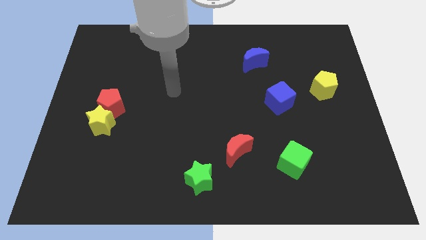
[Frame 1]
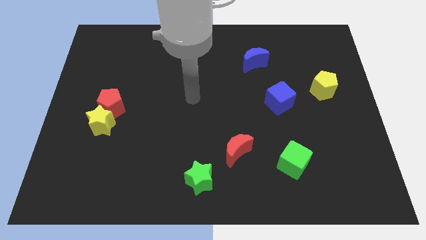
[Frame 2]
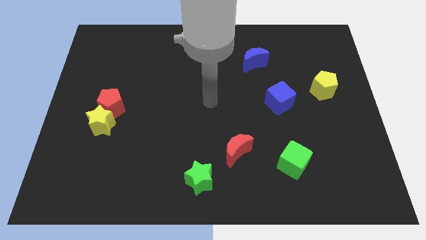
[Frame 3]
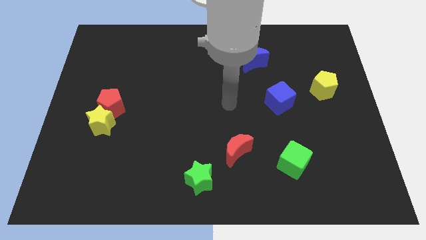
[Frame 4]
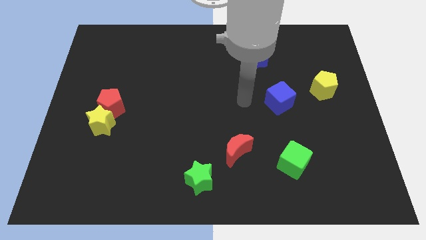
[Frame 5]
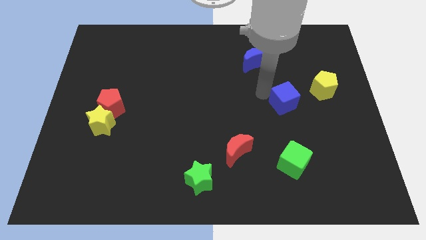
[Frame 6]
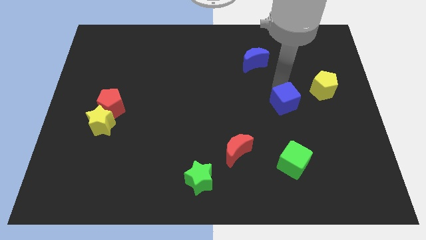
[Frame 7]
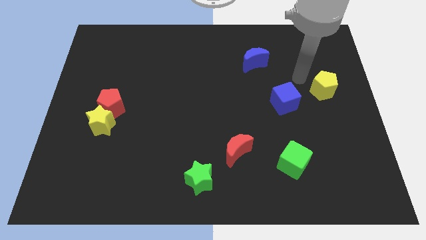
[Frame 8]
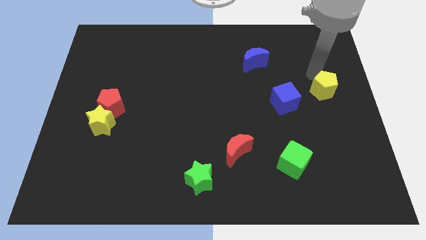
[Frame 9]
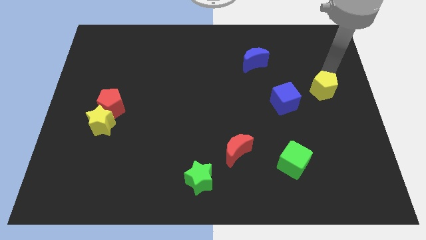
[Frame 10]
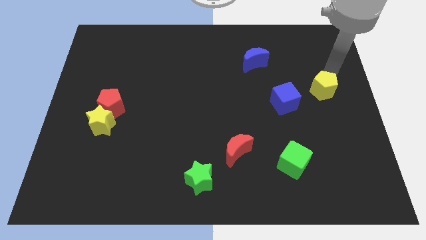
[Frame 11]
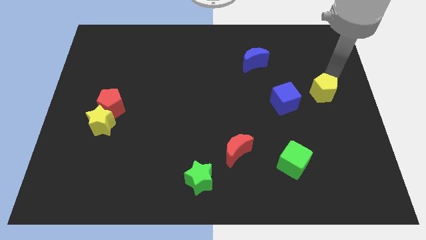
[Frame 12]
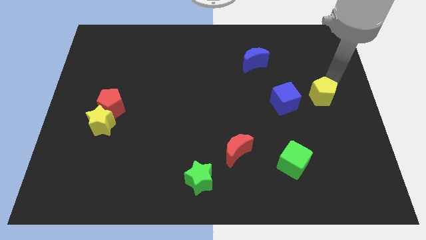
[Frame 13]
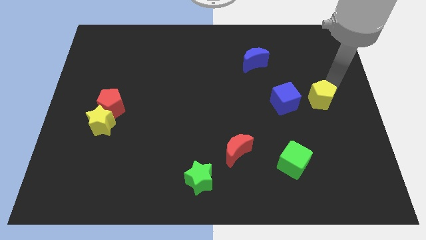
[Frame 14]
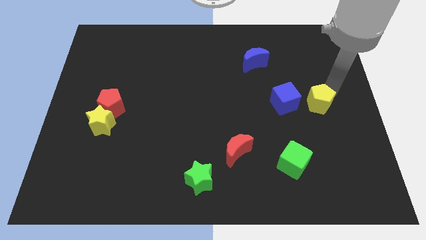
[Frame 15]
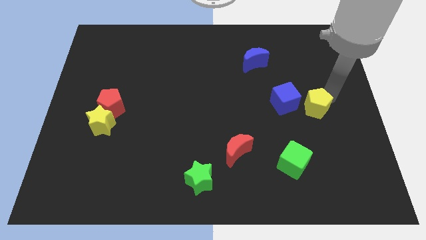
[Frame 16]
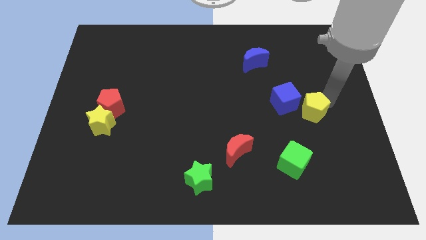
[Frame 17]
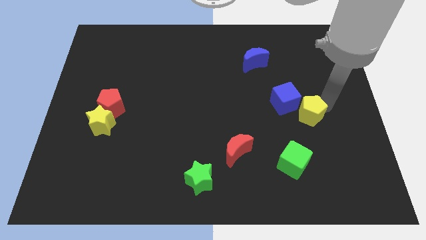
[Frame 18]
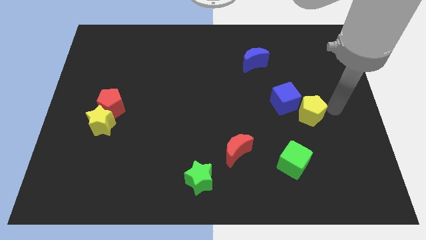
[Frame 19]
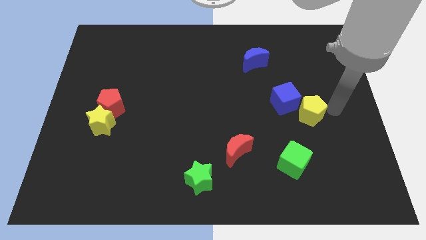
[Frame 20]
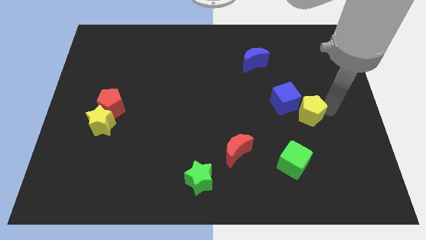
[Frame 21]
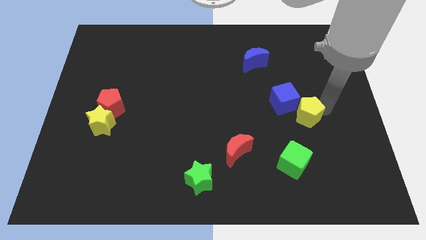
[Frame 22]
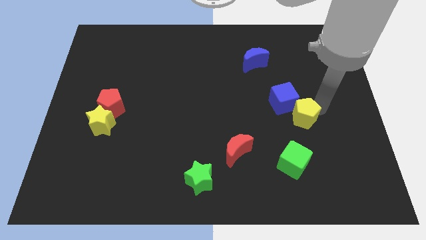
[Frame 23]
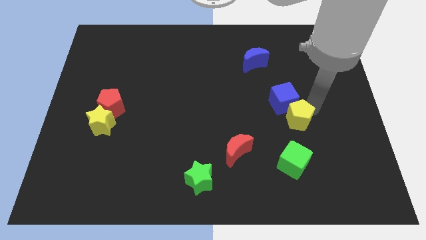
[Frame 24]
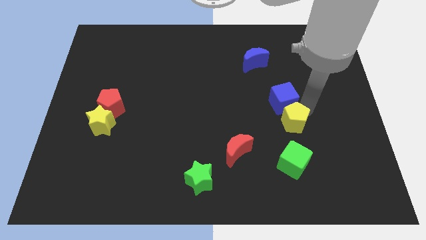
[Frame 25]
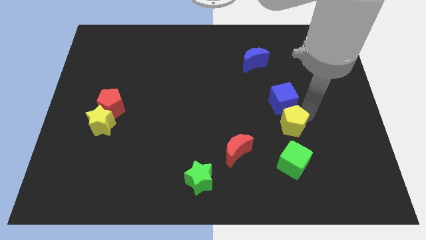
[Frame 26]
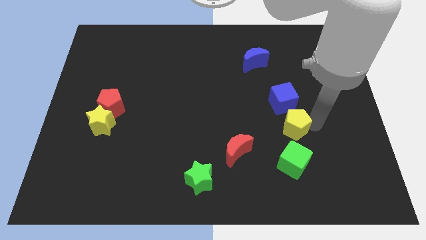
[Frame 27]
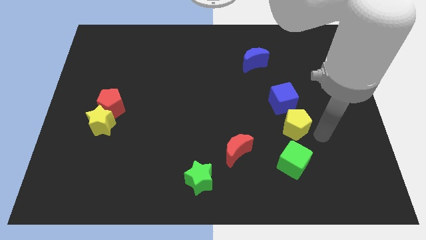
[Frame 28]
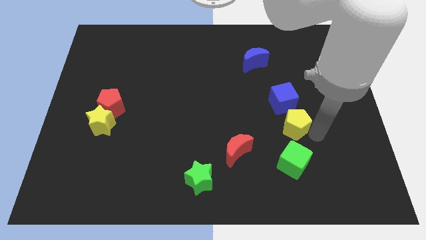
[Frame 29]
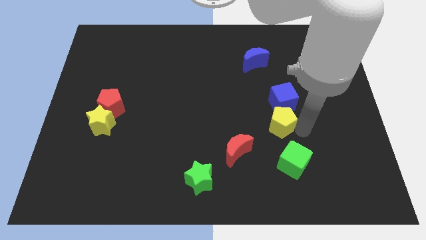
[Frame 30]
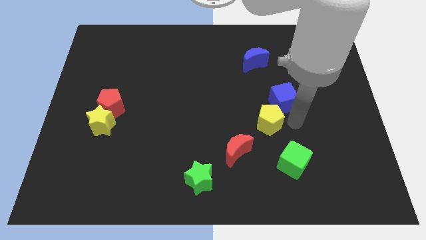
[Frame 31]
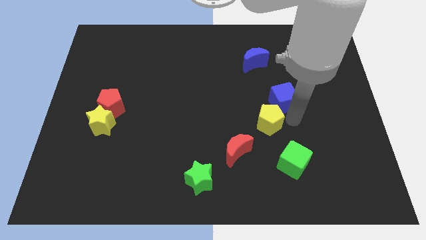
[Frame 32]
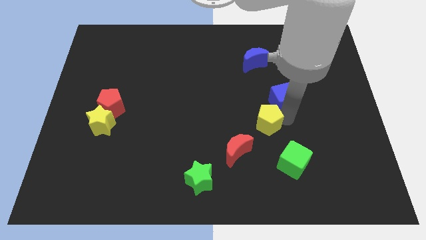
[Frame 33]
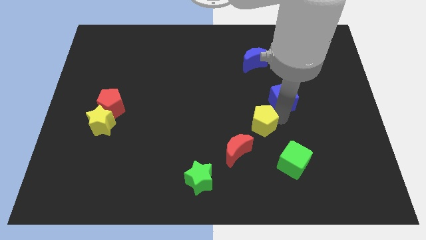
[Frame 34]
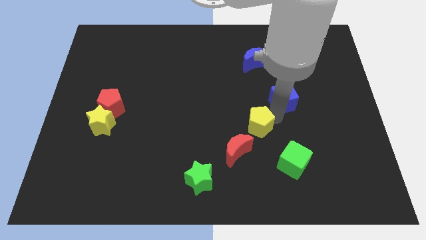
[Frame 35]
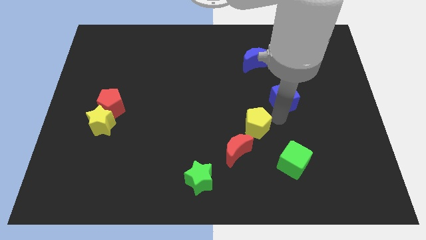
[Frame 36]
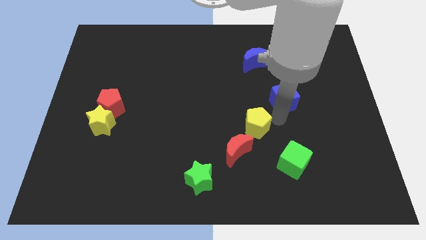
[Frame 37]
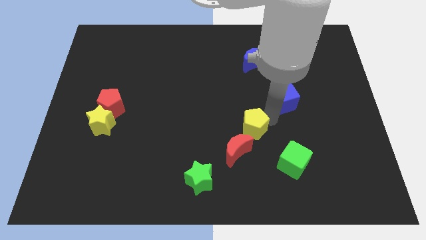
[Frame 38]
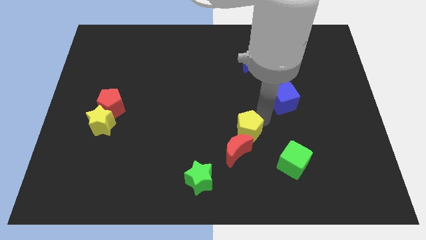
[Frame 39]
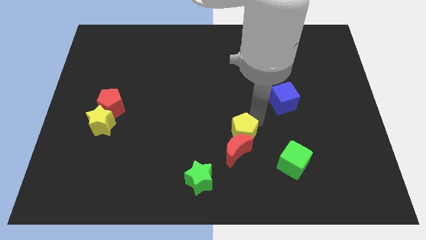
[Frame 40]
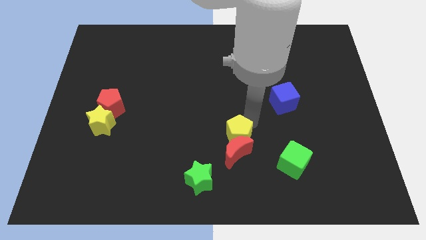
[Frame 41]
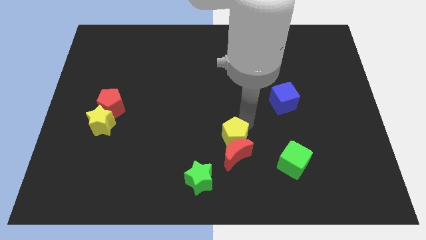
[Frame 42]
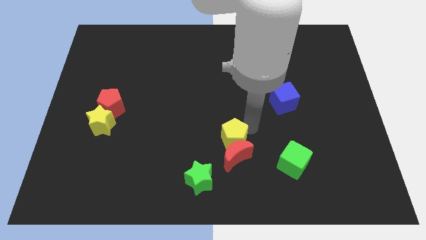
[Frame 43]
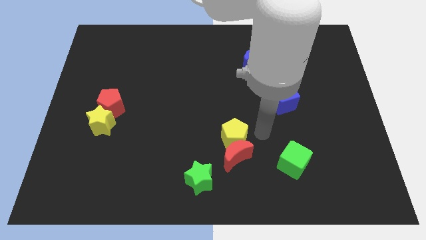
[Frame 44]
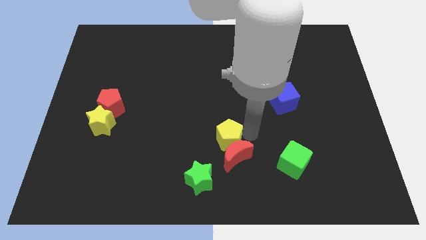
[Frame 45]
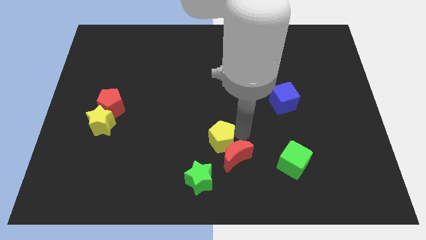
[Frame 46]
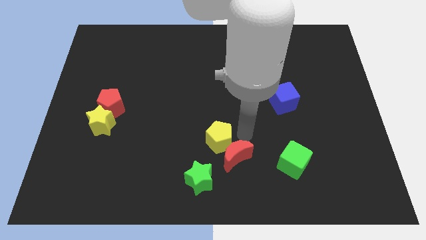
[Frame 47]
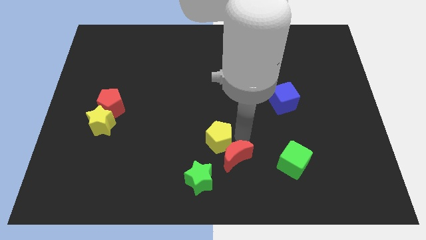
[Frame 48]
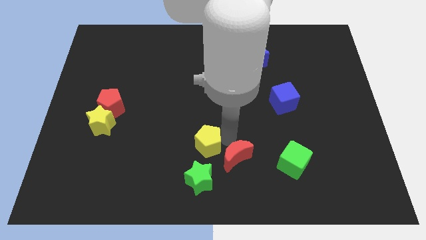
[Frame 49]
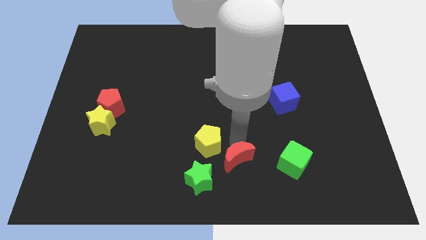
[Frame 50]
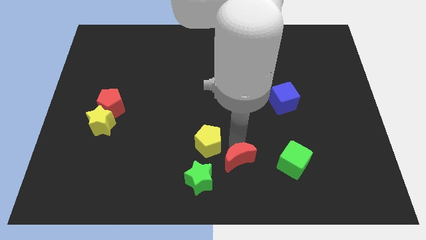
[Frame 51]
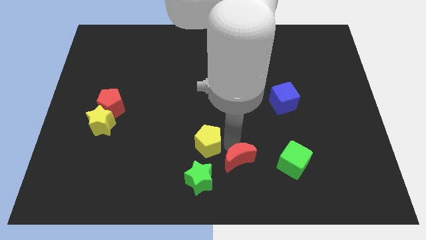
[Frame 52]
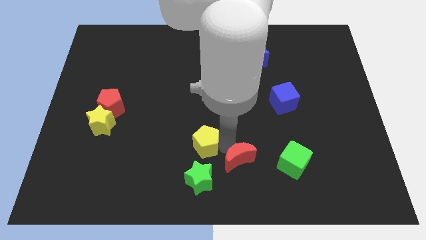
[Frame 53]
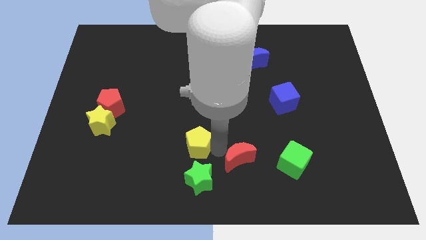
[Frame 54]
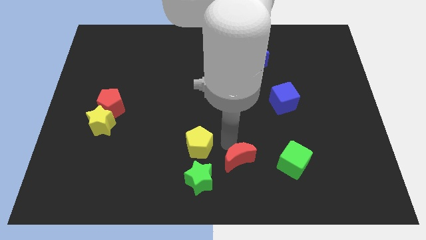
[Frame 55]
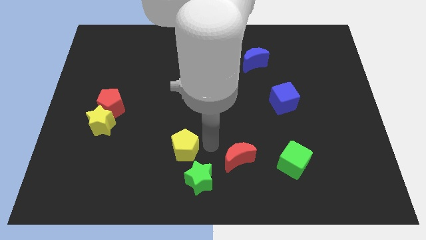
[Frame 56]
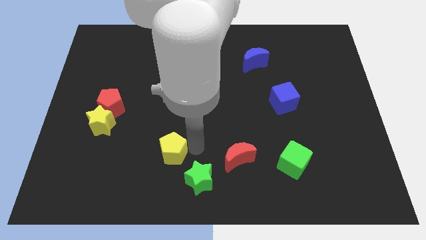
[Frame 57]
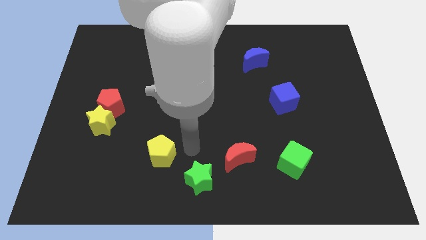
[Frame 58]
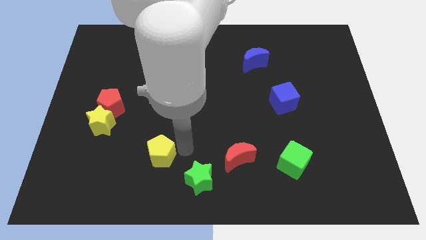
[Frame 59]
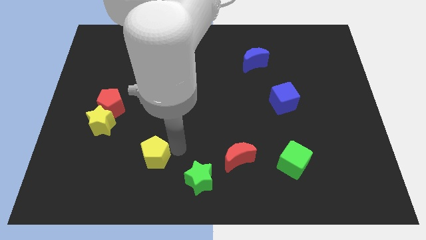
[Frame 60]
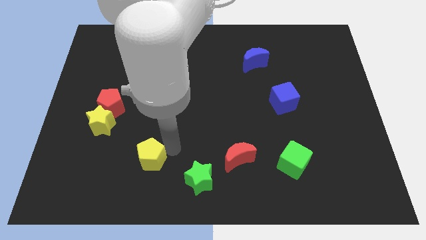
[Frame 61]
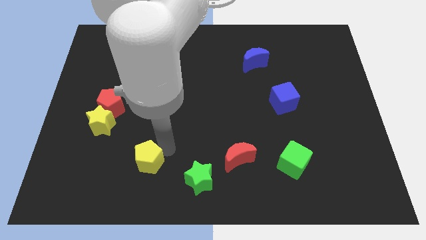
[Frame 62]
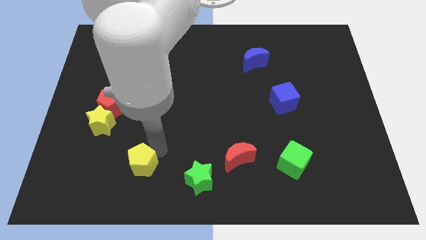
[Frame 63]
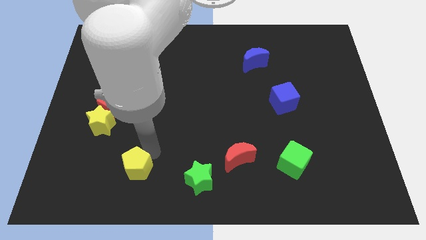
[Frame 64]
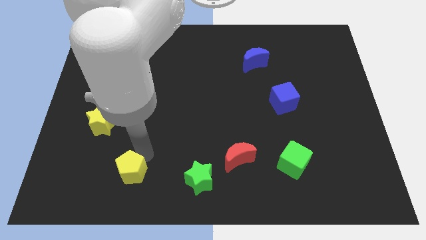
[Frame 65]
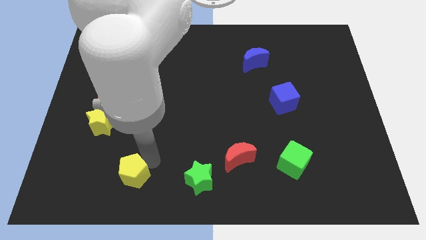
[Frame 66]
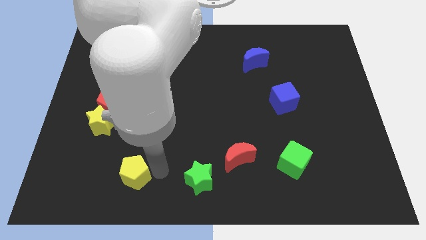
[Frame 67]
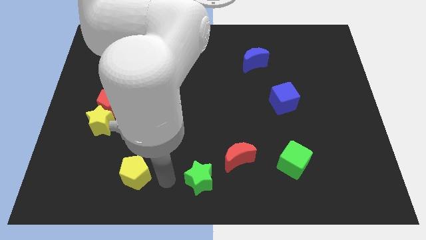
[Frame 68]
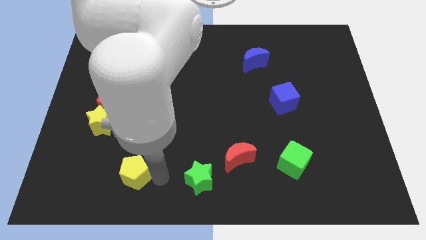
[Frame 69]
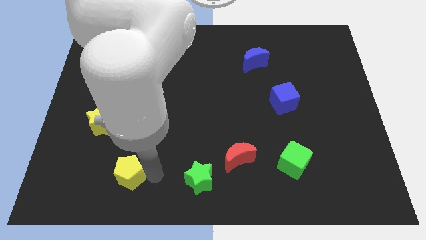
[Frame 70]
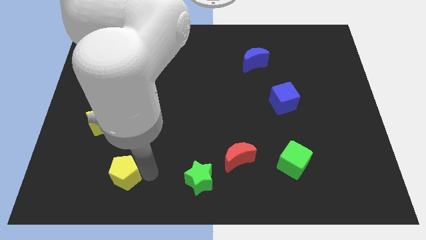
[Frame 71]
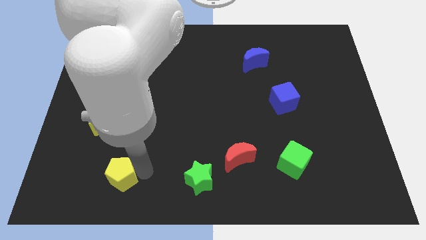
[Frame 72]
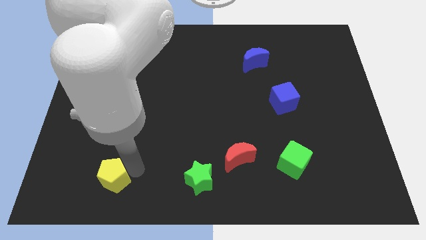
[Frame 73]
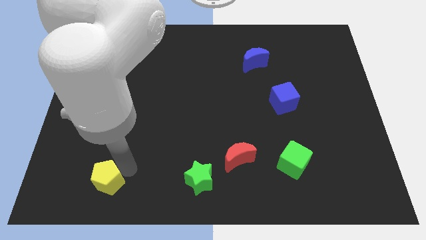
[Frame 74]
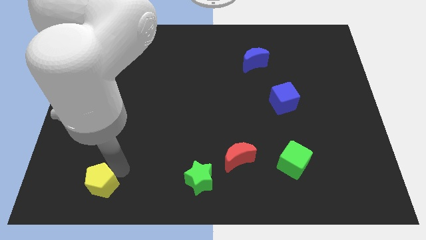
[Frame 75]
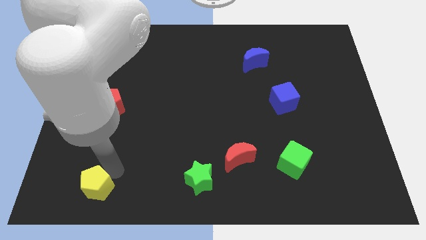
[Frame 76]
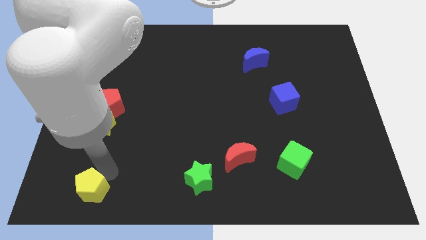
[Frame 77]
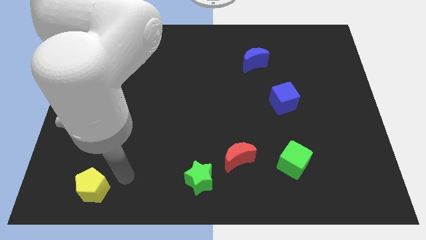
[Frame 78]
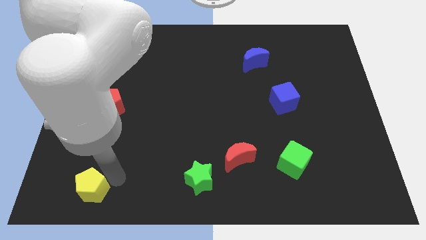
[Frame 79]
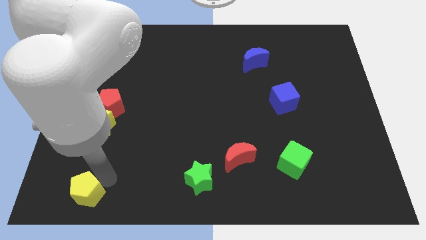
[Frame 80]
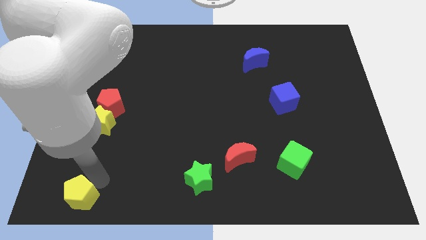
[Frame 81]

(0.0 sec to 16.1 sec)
put the yellow pentagon to the bottom left
